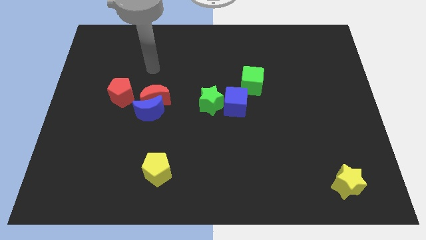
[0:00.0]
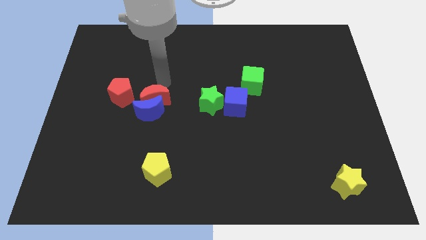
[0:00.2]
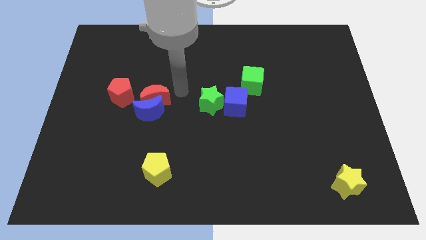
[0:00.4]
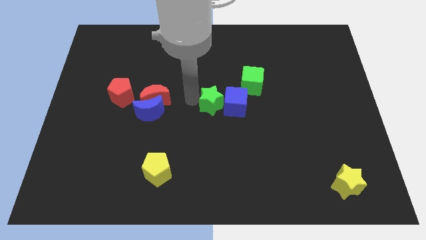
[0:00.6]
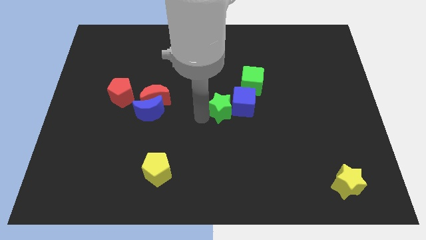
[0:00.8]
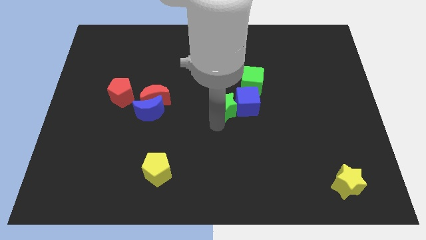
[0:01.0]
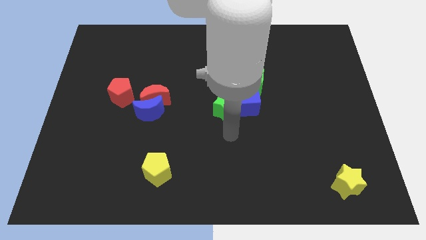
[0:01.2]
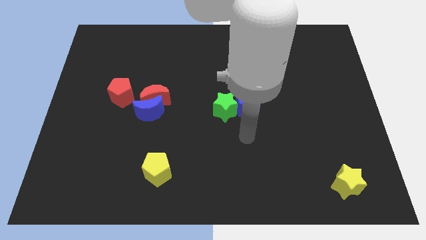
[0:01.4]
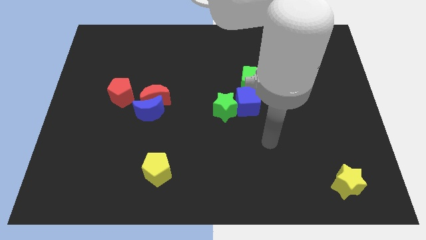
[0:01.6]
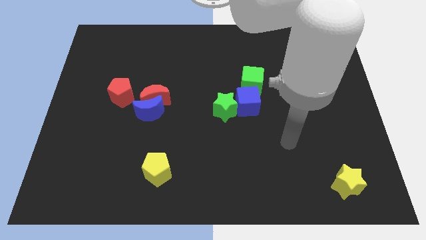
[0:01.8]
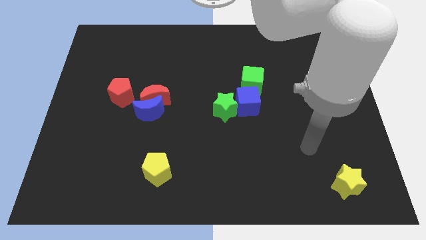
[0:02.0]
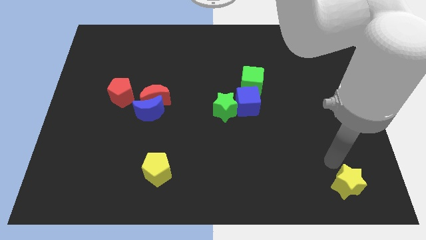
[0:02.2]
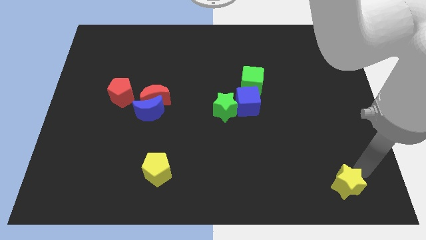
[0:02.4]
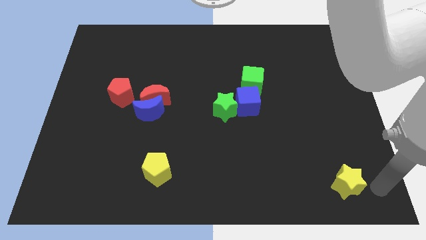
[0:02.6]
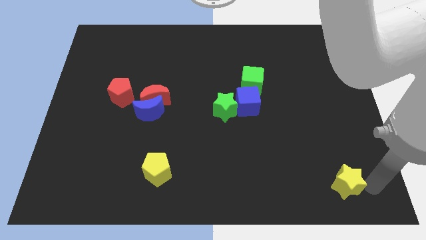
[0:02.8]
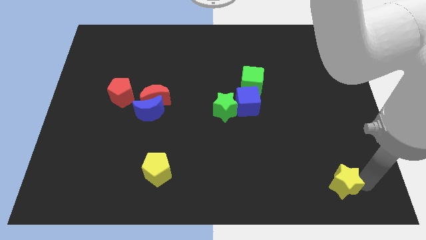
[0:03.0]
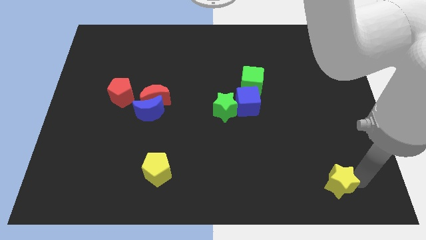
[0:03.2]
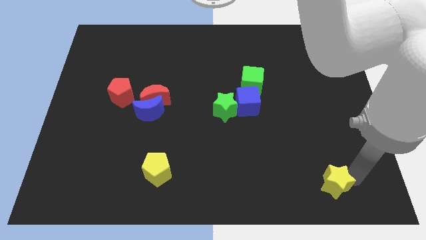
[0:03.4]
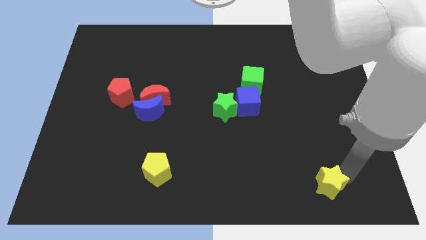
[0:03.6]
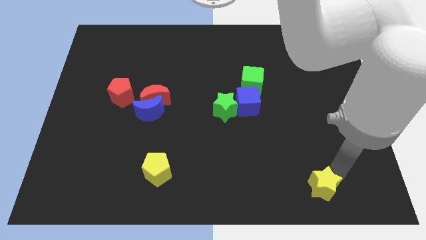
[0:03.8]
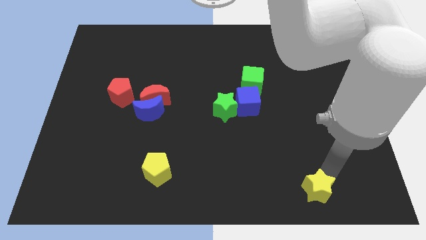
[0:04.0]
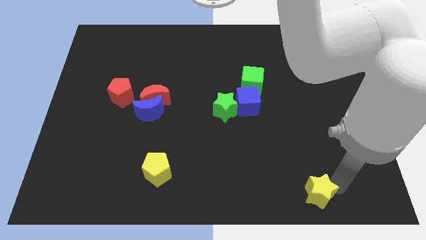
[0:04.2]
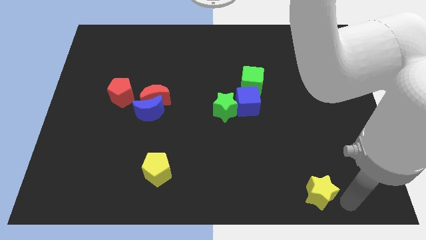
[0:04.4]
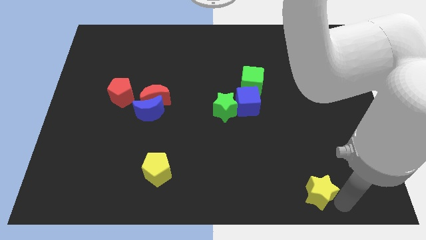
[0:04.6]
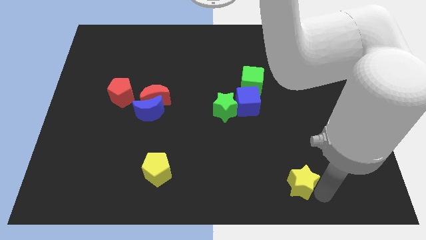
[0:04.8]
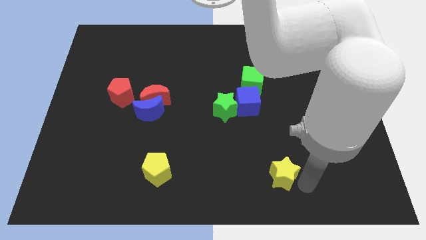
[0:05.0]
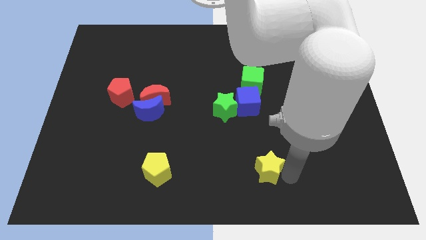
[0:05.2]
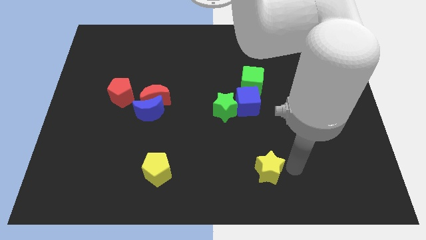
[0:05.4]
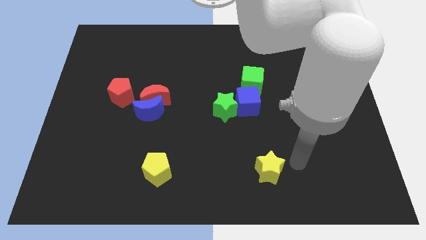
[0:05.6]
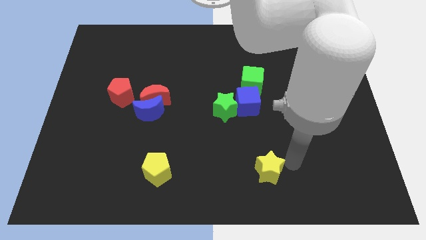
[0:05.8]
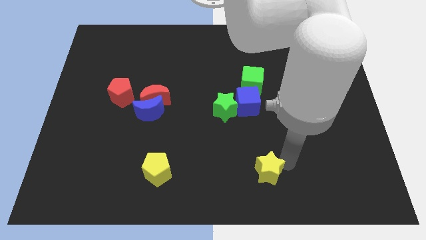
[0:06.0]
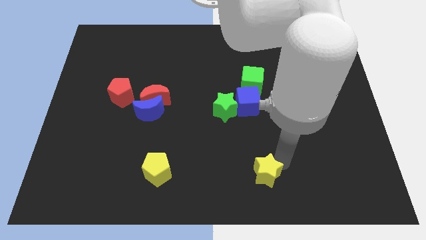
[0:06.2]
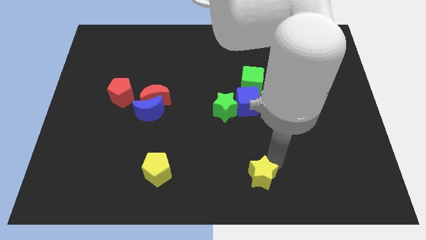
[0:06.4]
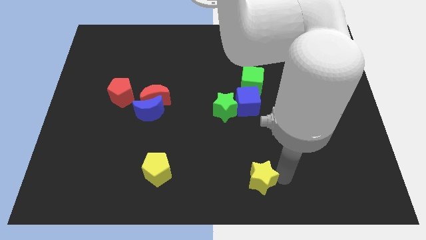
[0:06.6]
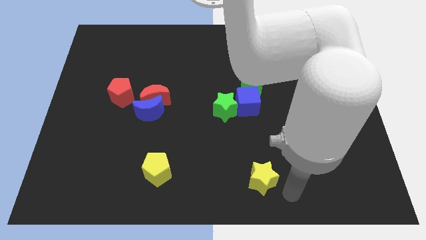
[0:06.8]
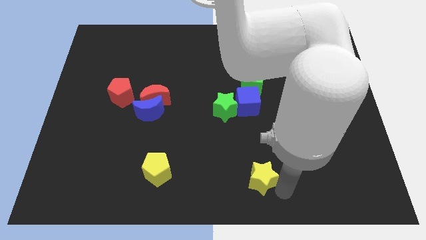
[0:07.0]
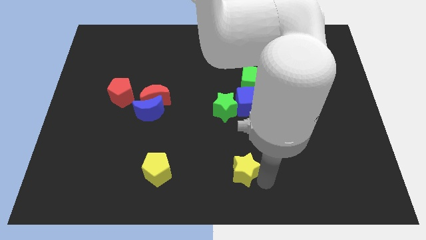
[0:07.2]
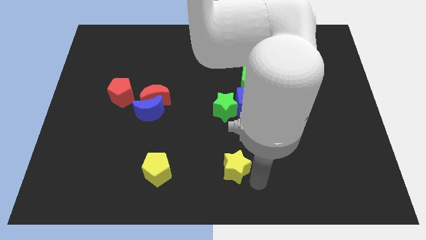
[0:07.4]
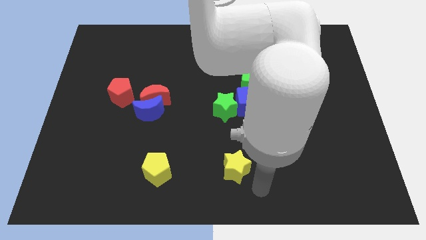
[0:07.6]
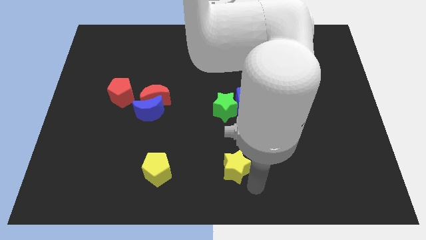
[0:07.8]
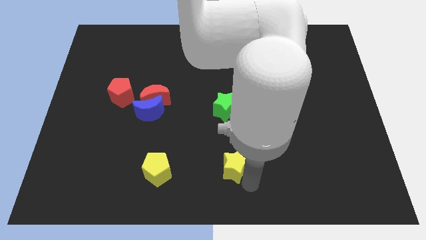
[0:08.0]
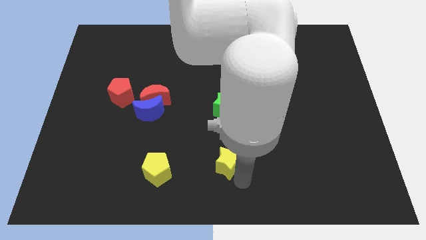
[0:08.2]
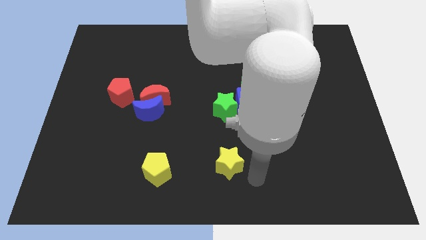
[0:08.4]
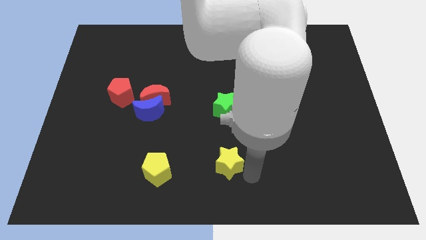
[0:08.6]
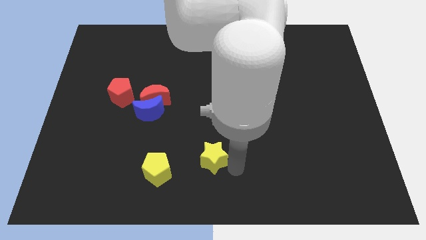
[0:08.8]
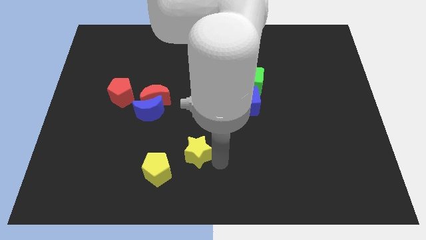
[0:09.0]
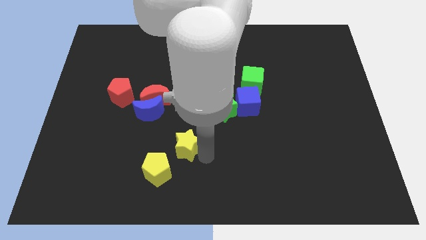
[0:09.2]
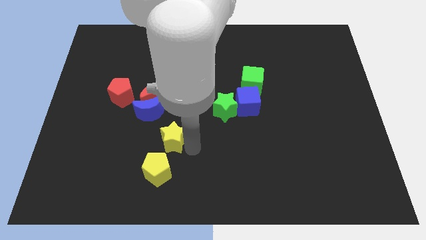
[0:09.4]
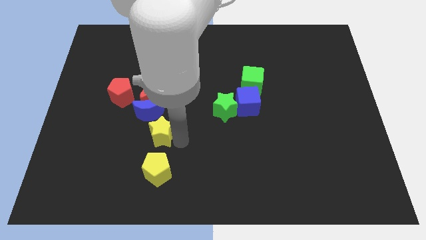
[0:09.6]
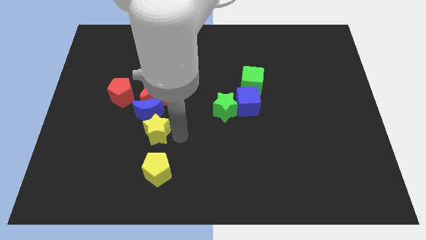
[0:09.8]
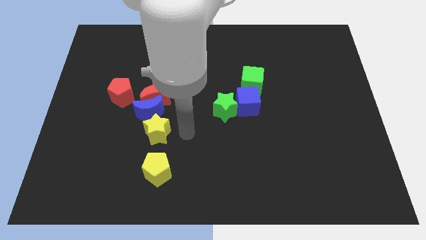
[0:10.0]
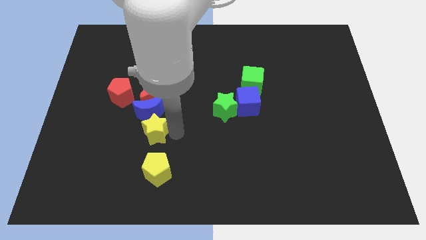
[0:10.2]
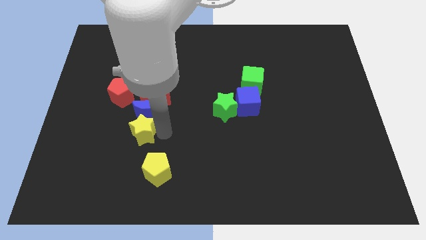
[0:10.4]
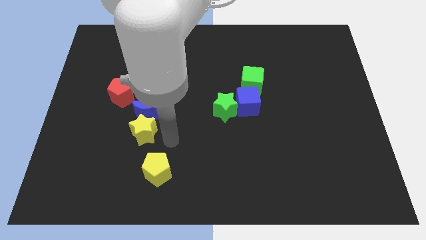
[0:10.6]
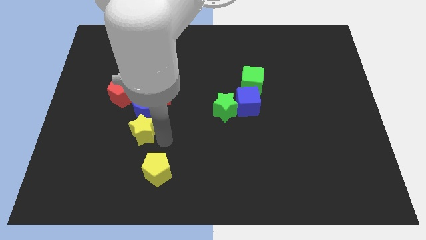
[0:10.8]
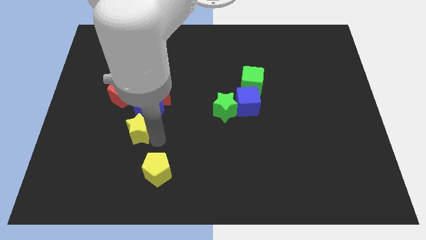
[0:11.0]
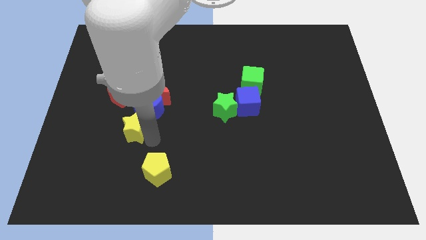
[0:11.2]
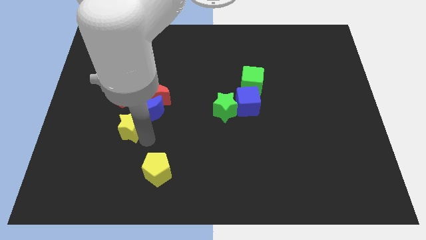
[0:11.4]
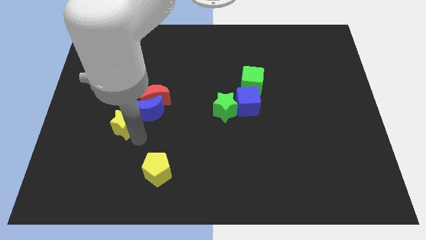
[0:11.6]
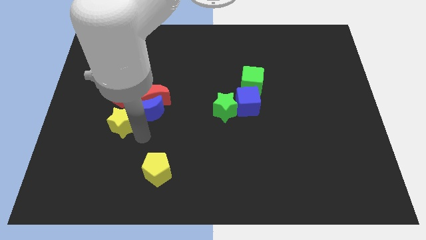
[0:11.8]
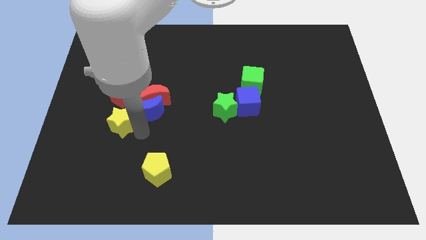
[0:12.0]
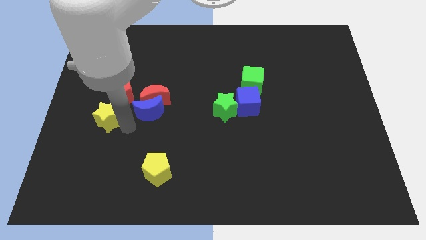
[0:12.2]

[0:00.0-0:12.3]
put the yellow star to the bottom left of the red pentagon
